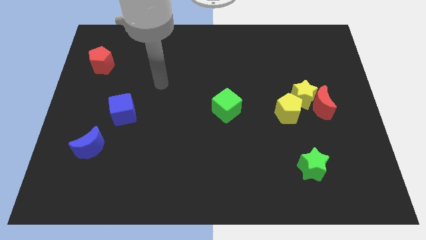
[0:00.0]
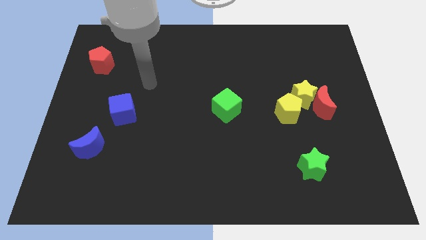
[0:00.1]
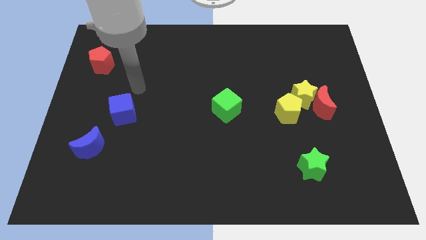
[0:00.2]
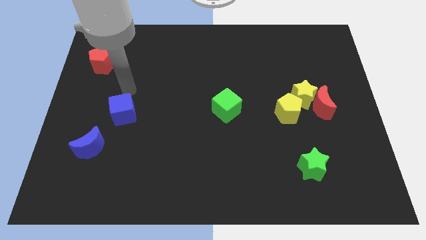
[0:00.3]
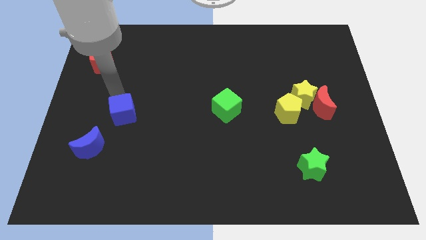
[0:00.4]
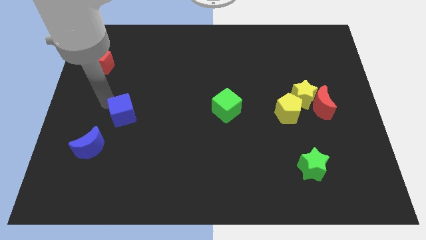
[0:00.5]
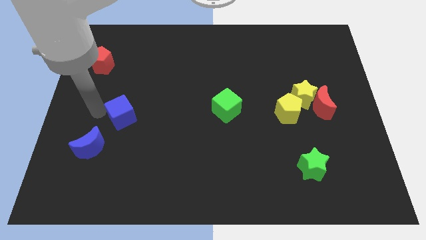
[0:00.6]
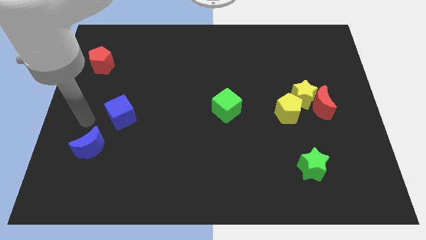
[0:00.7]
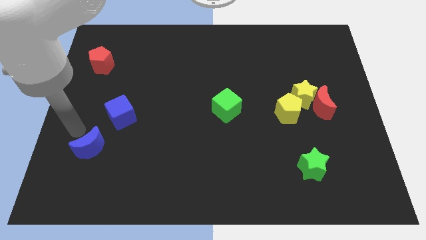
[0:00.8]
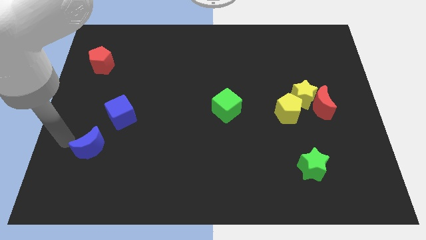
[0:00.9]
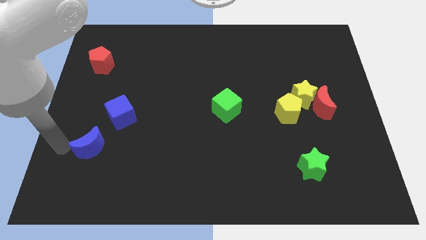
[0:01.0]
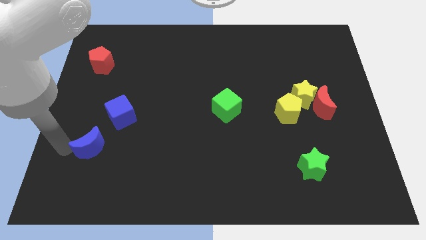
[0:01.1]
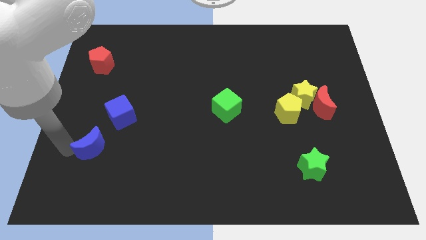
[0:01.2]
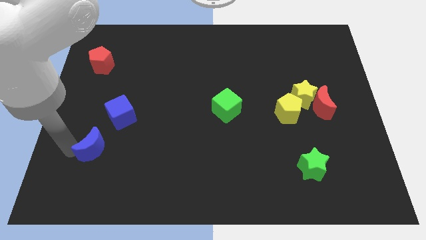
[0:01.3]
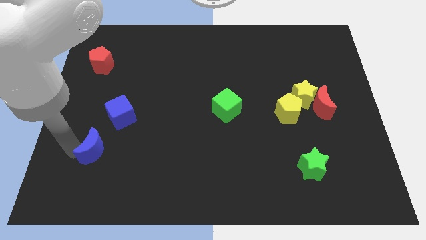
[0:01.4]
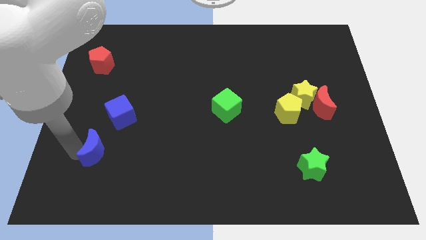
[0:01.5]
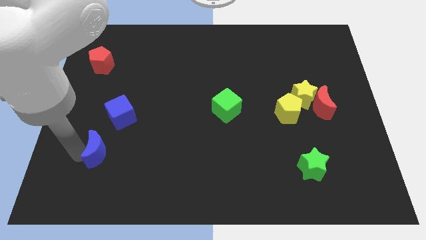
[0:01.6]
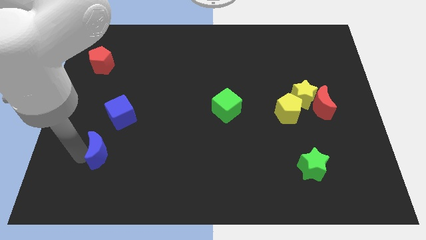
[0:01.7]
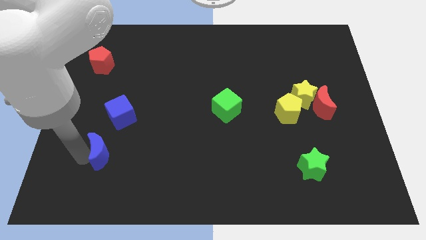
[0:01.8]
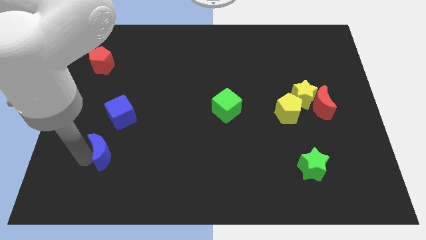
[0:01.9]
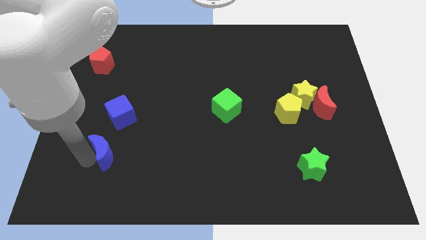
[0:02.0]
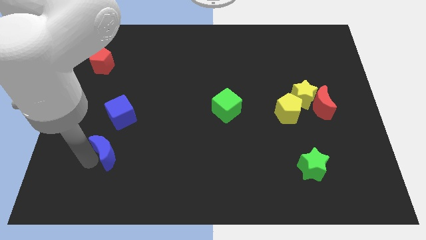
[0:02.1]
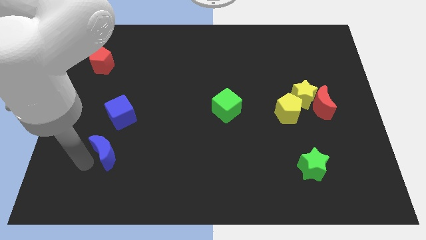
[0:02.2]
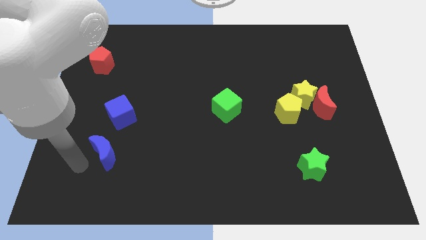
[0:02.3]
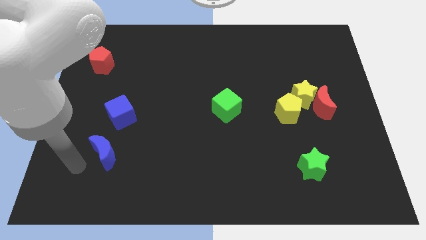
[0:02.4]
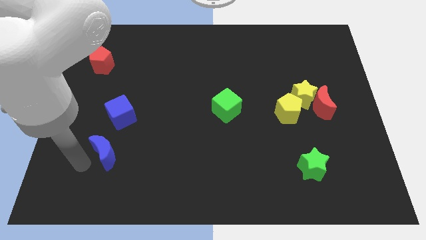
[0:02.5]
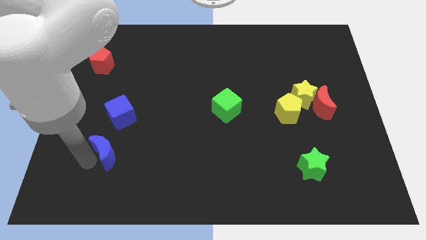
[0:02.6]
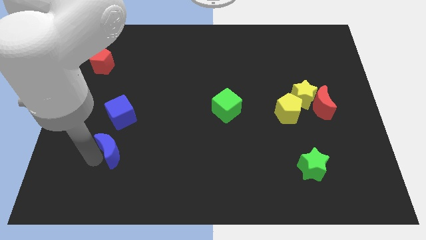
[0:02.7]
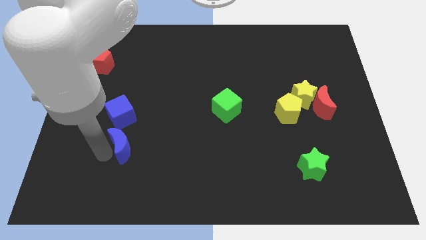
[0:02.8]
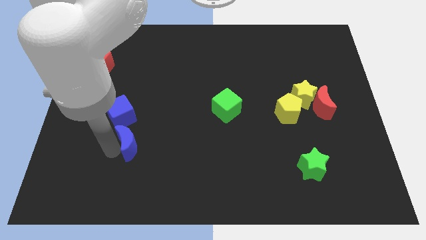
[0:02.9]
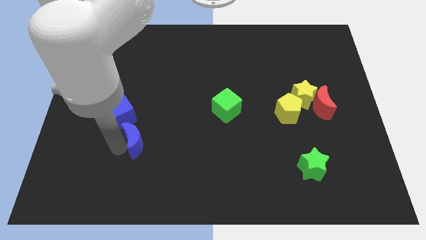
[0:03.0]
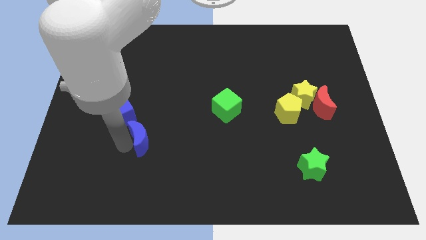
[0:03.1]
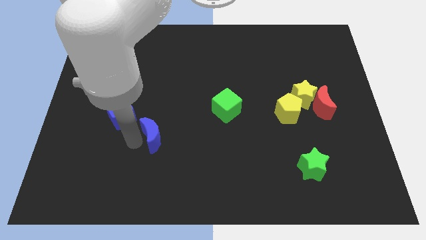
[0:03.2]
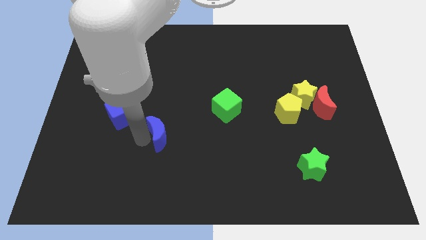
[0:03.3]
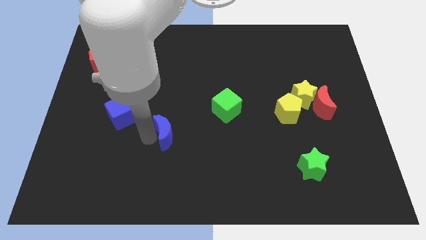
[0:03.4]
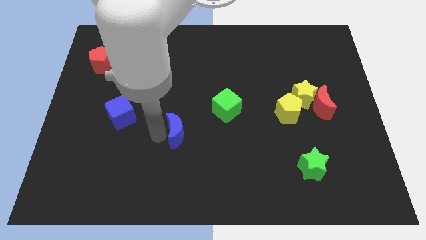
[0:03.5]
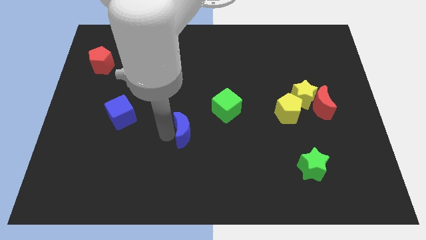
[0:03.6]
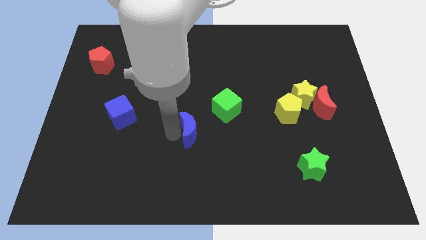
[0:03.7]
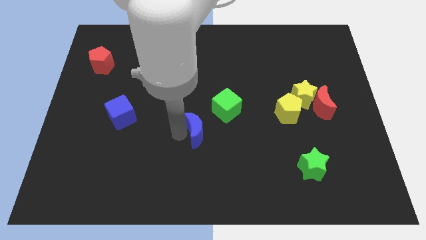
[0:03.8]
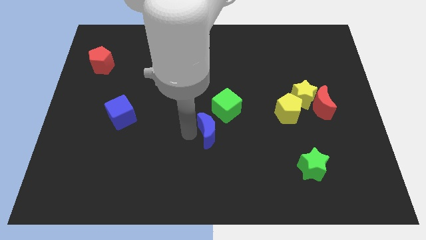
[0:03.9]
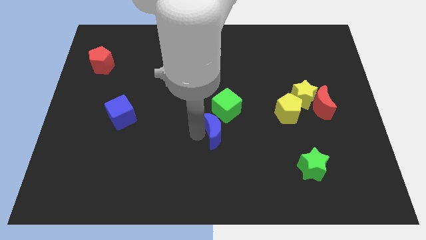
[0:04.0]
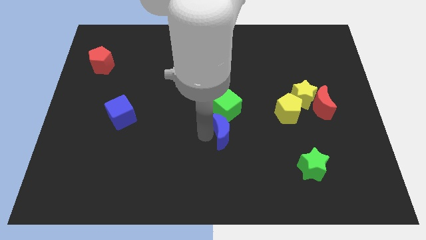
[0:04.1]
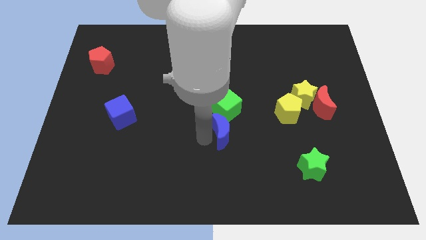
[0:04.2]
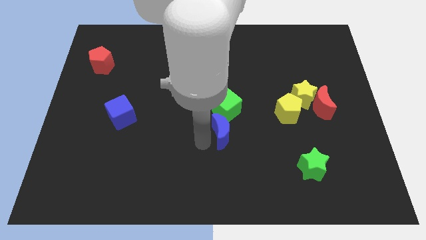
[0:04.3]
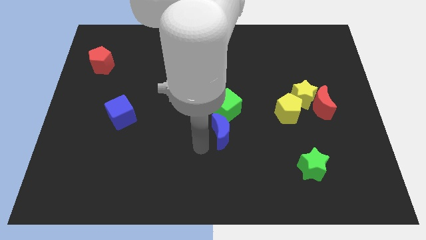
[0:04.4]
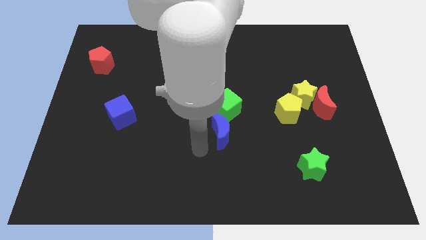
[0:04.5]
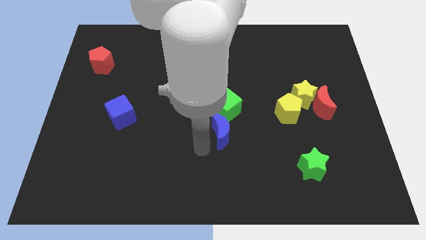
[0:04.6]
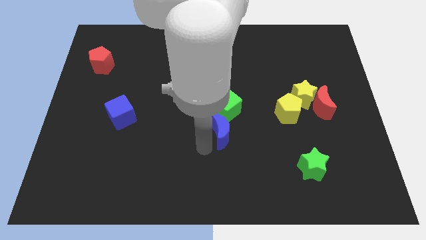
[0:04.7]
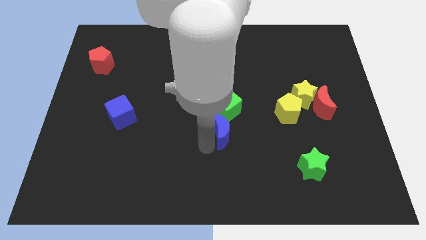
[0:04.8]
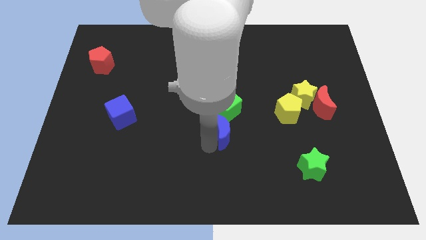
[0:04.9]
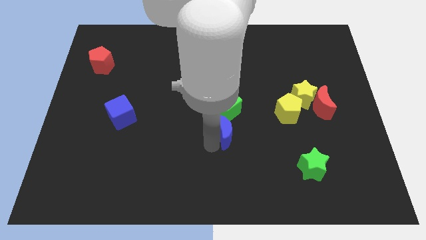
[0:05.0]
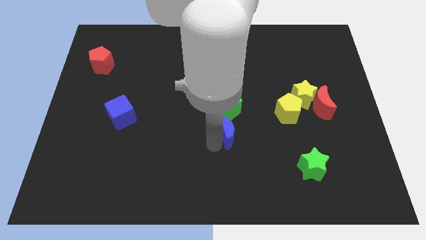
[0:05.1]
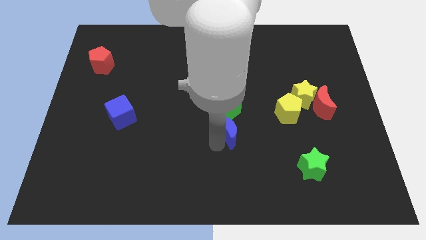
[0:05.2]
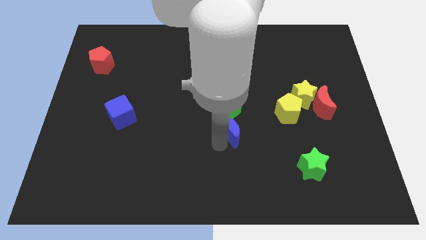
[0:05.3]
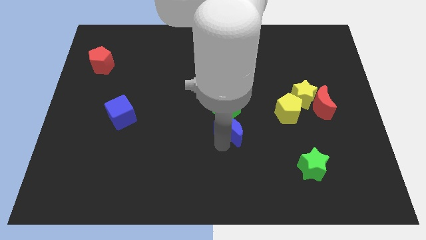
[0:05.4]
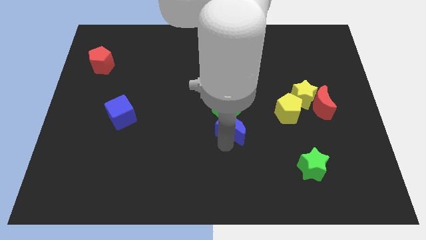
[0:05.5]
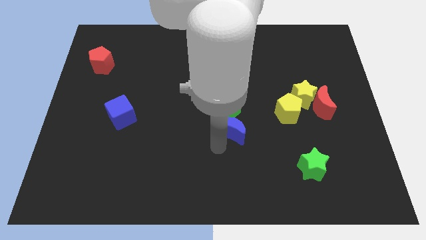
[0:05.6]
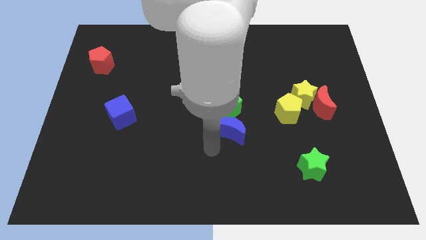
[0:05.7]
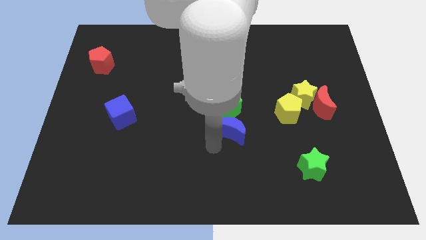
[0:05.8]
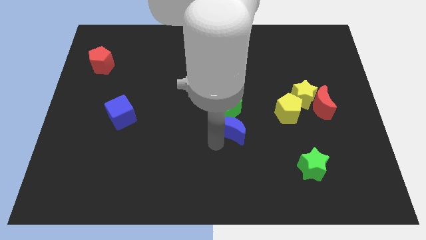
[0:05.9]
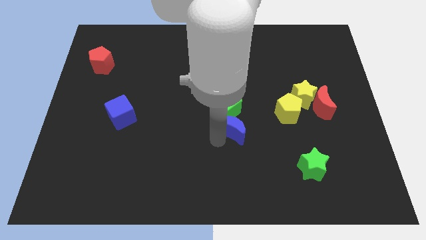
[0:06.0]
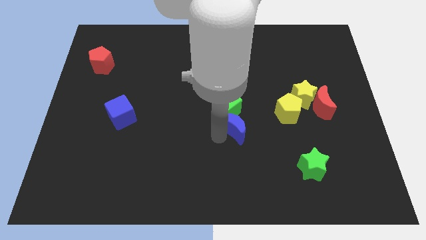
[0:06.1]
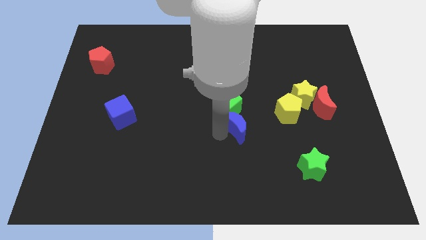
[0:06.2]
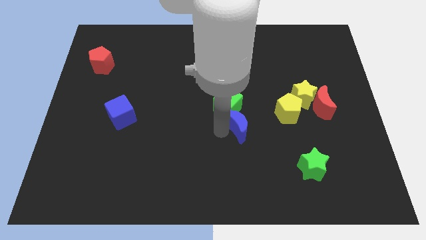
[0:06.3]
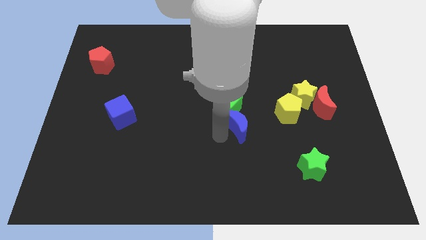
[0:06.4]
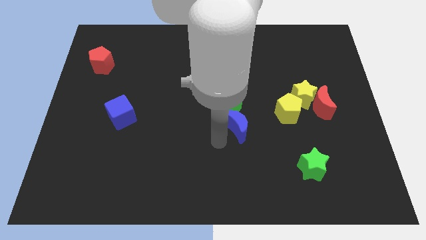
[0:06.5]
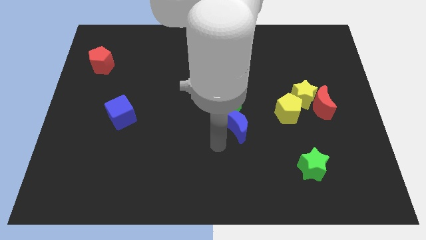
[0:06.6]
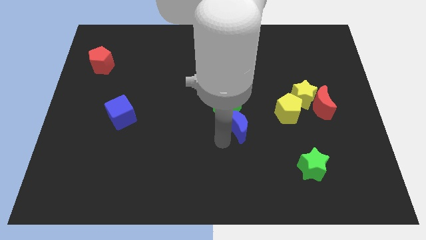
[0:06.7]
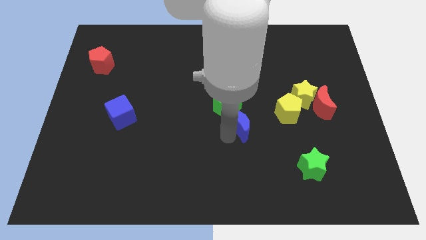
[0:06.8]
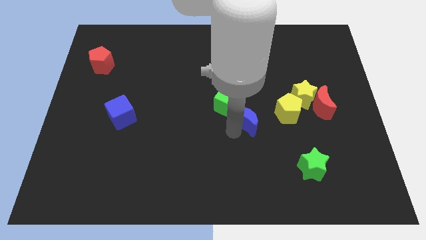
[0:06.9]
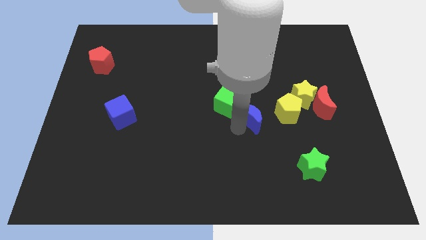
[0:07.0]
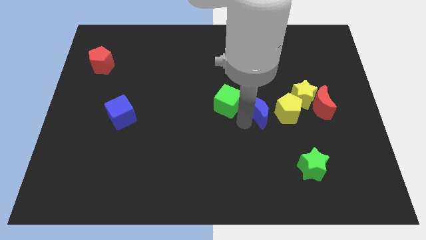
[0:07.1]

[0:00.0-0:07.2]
move the blue moon to the left of the red moon

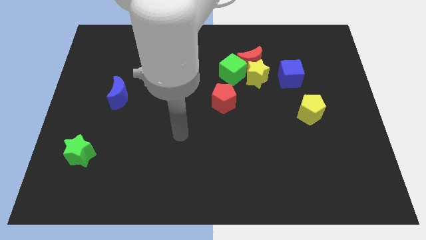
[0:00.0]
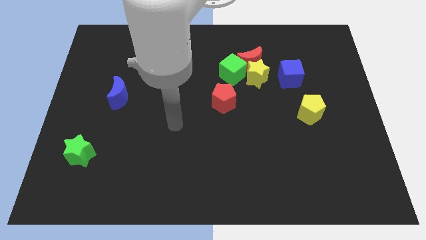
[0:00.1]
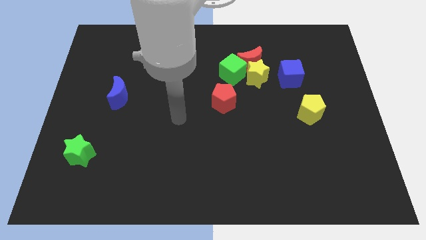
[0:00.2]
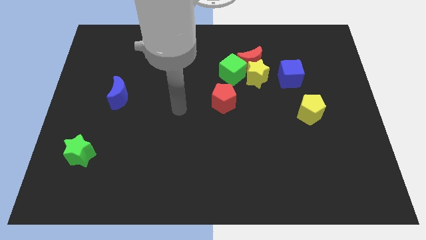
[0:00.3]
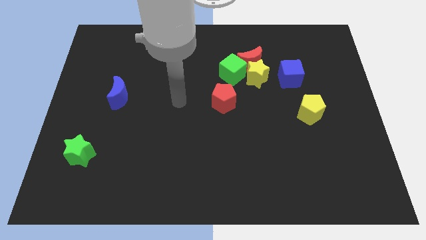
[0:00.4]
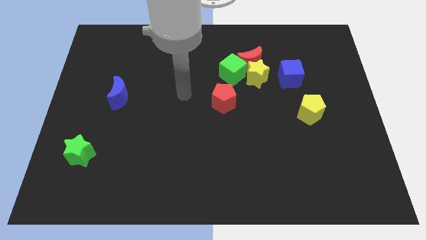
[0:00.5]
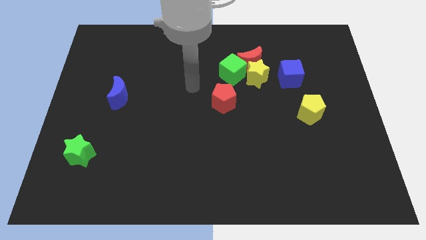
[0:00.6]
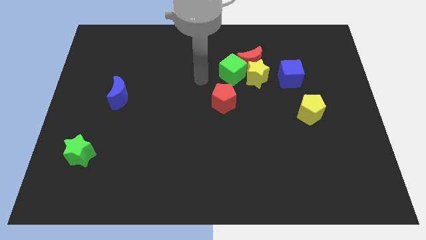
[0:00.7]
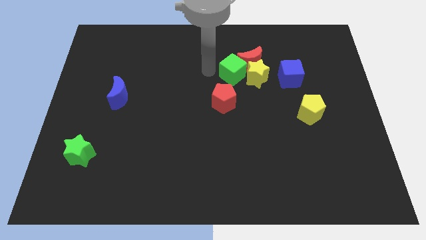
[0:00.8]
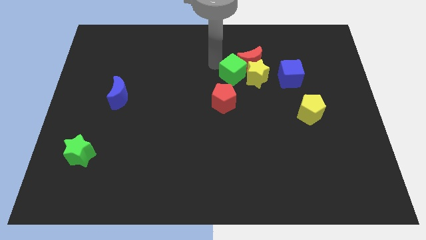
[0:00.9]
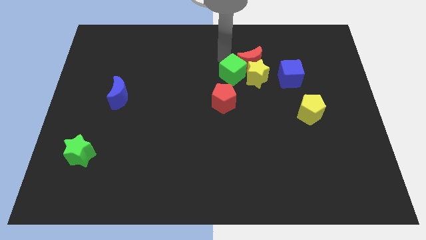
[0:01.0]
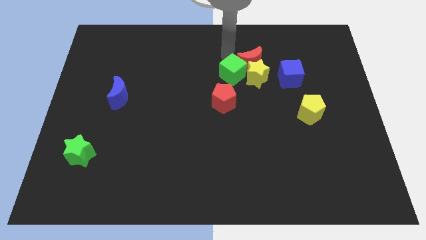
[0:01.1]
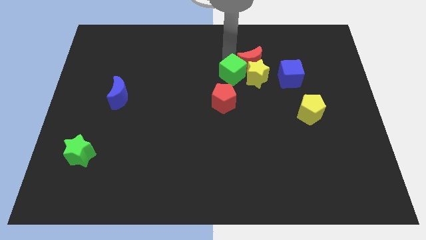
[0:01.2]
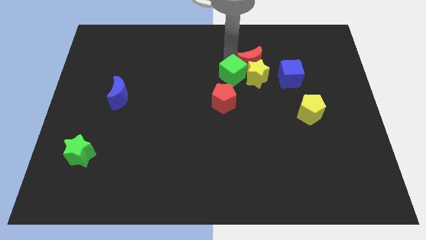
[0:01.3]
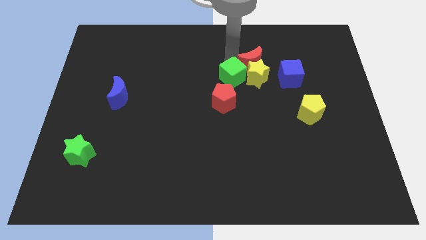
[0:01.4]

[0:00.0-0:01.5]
move the green cube to the bottom left of the yellow star
